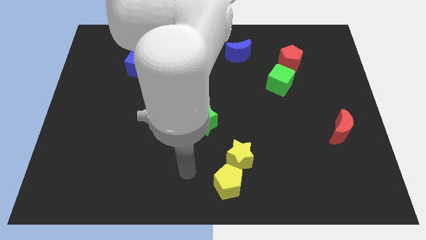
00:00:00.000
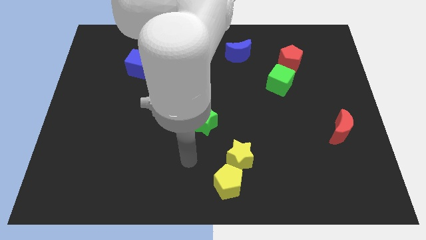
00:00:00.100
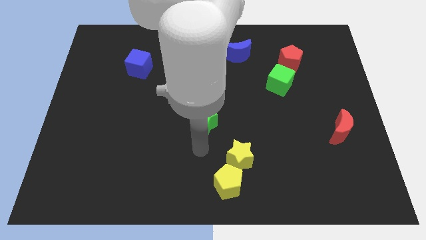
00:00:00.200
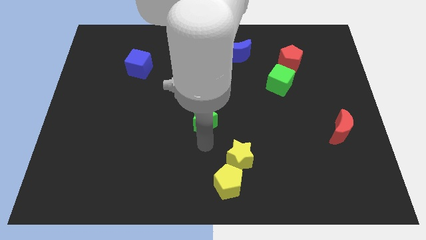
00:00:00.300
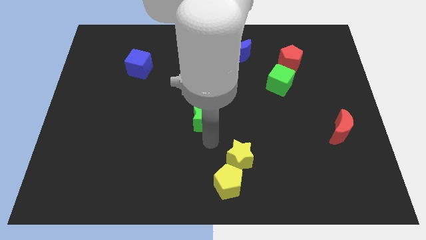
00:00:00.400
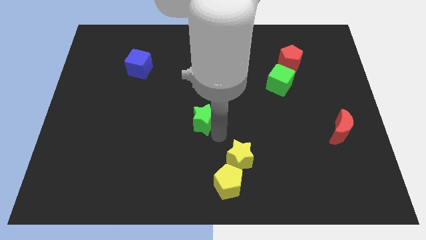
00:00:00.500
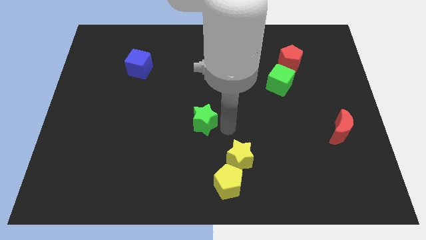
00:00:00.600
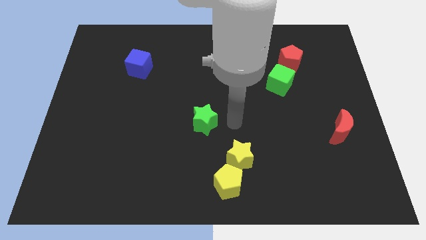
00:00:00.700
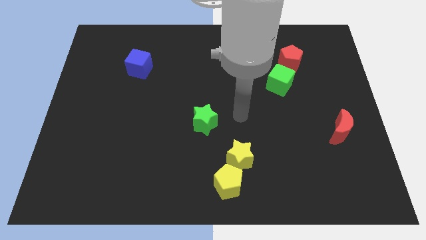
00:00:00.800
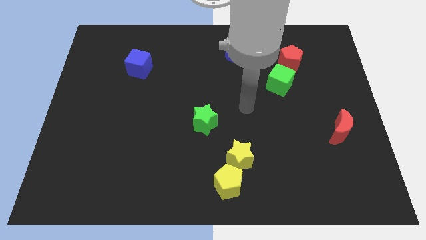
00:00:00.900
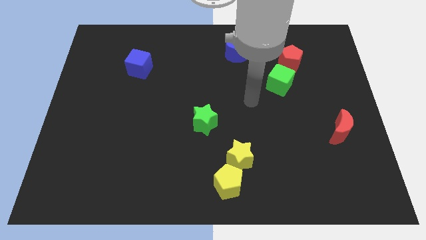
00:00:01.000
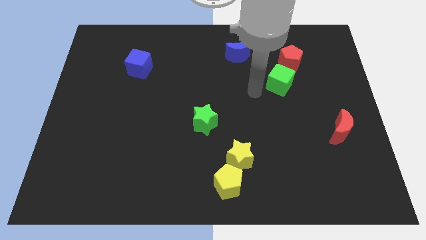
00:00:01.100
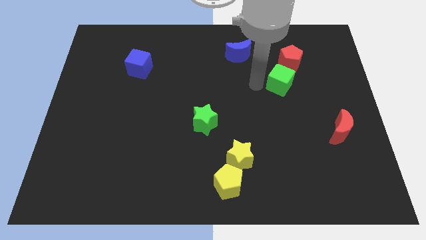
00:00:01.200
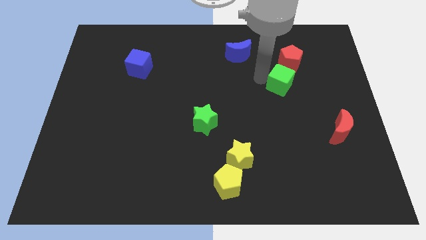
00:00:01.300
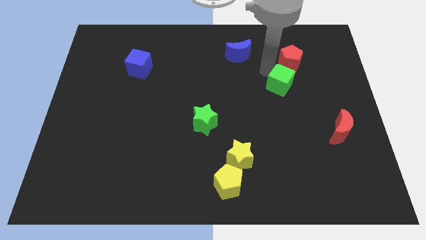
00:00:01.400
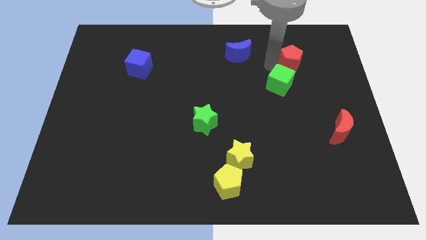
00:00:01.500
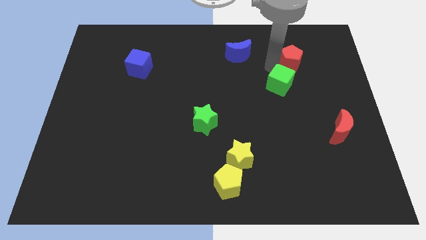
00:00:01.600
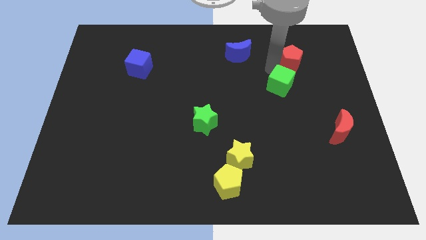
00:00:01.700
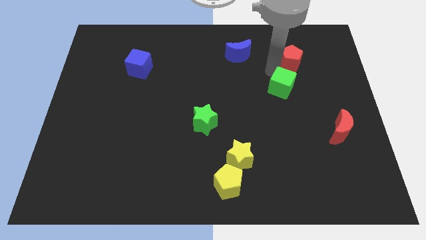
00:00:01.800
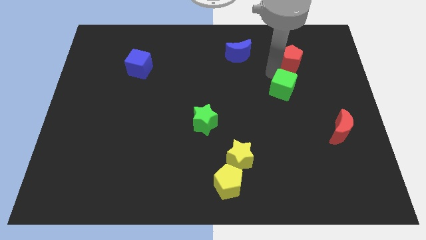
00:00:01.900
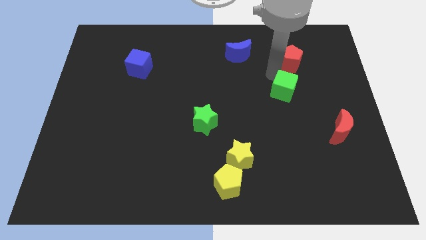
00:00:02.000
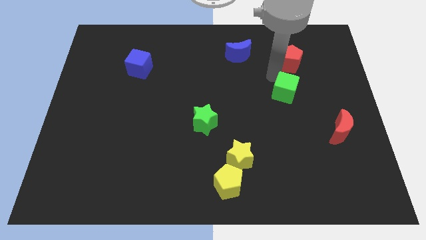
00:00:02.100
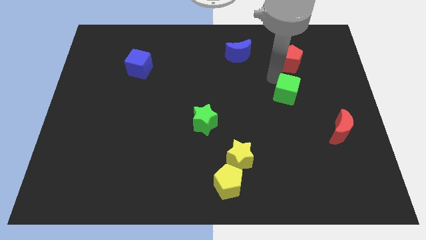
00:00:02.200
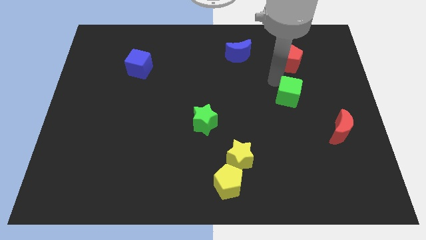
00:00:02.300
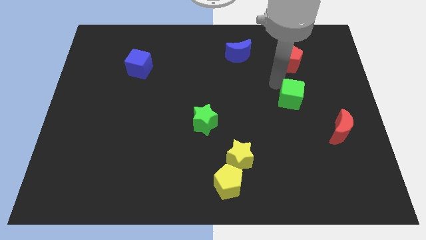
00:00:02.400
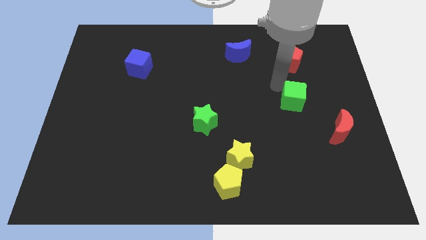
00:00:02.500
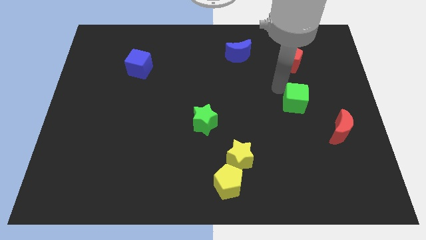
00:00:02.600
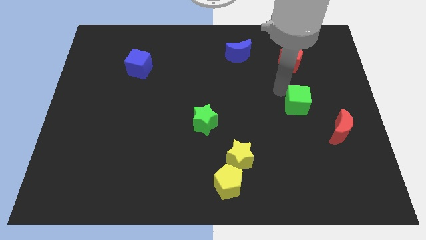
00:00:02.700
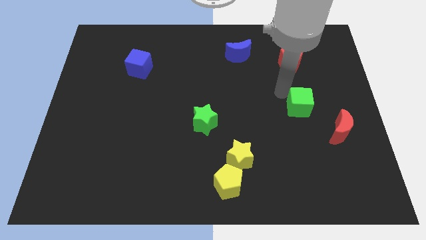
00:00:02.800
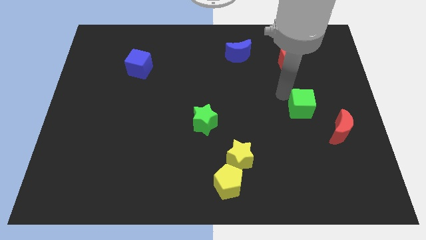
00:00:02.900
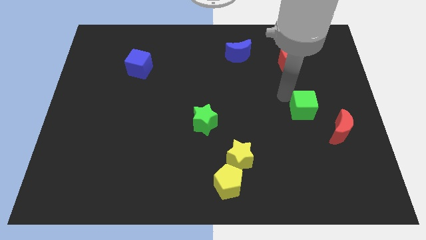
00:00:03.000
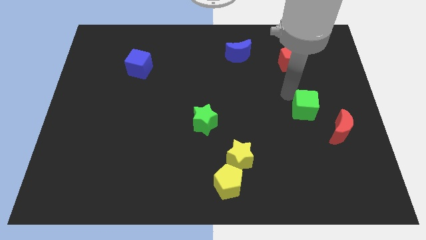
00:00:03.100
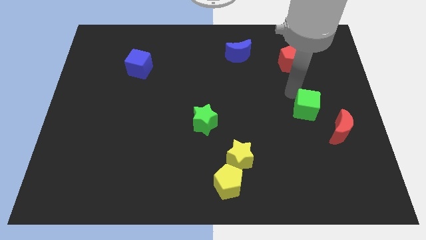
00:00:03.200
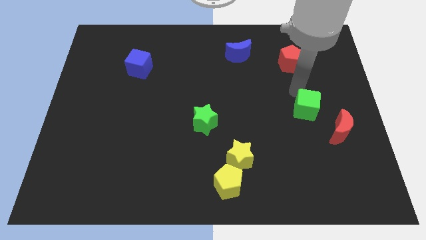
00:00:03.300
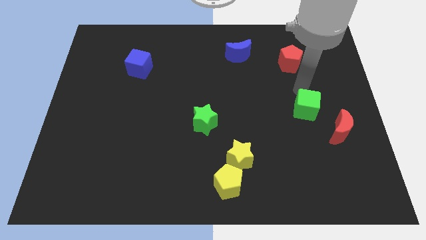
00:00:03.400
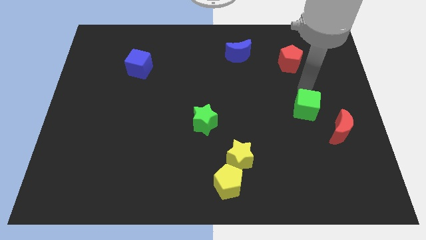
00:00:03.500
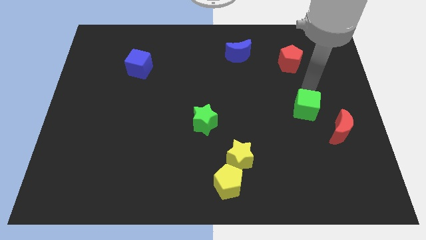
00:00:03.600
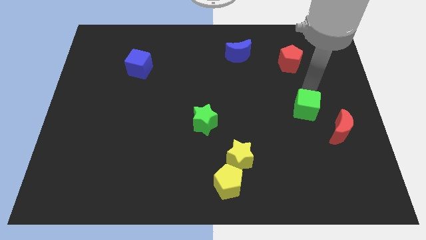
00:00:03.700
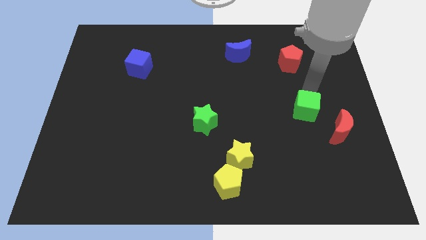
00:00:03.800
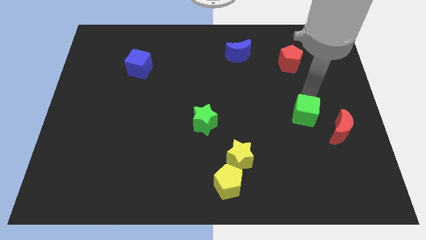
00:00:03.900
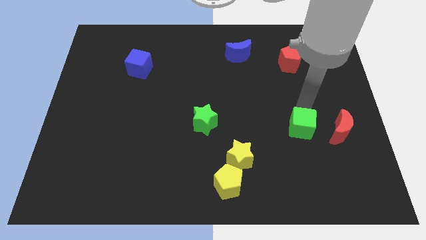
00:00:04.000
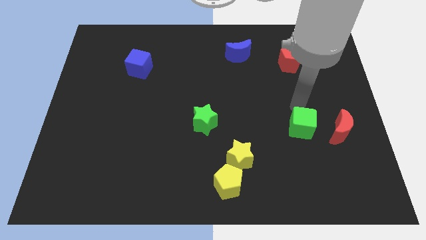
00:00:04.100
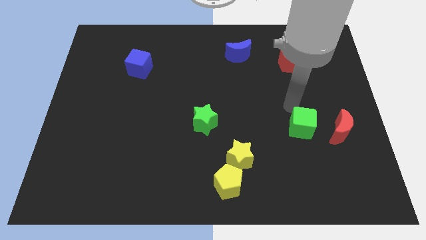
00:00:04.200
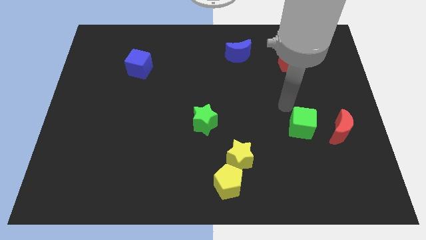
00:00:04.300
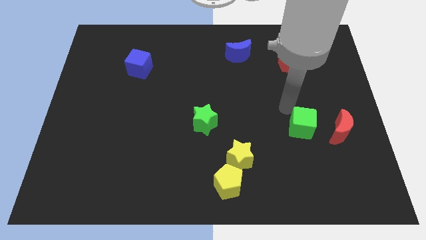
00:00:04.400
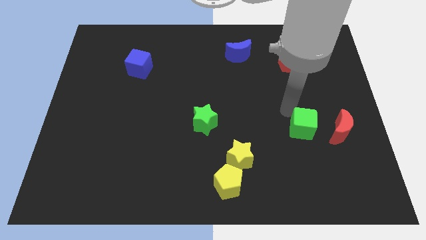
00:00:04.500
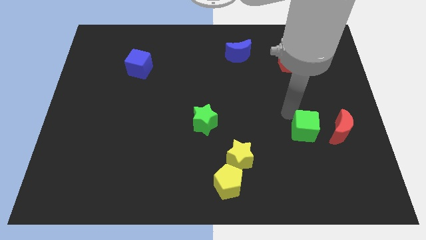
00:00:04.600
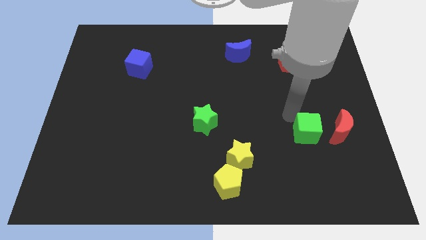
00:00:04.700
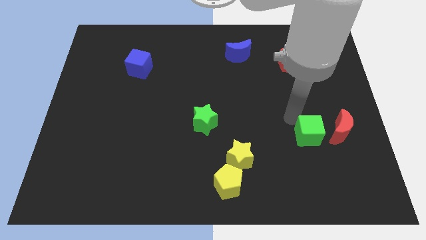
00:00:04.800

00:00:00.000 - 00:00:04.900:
put the green cube to the bottom left of the red moon

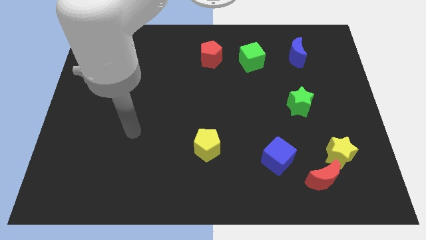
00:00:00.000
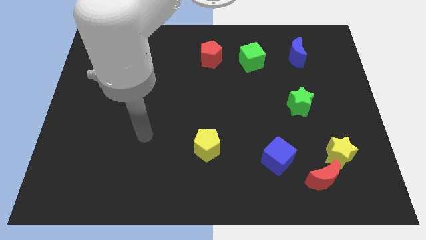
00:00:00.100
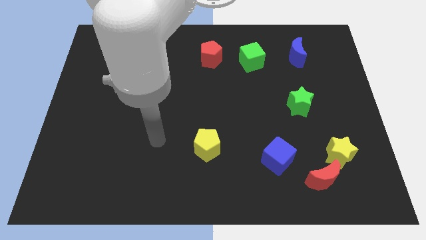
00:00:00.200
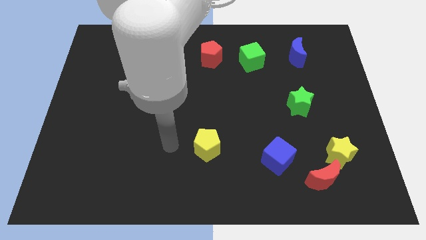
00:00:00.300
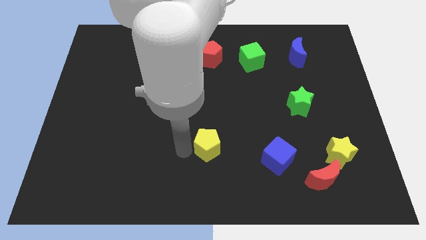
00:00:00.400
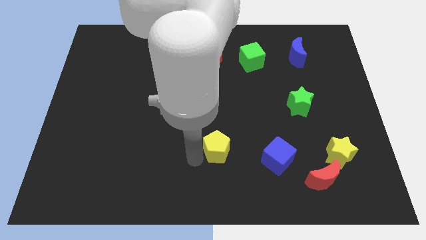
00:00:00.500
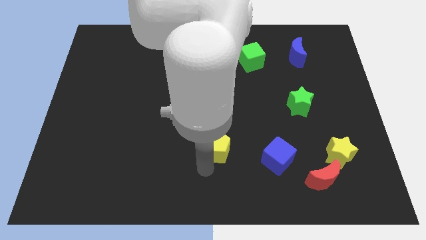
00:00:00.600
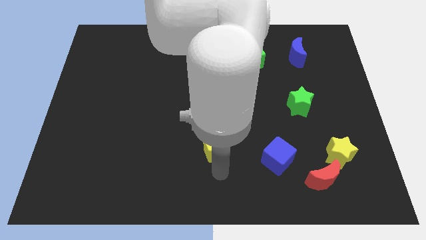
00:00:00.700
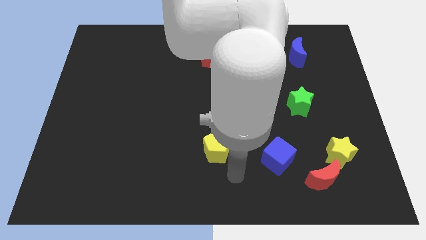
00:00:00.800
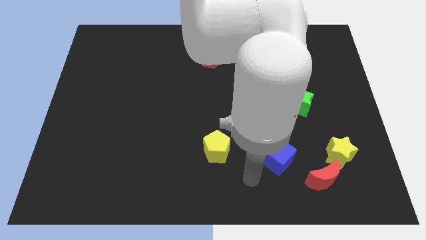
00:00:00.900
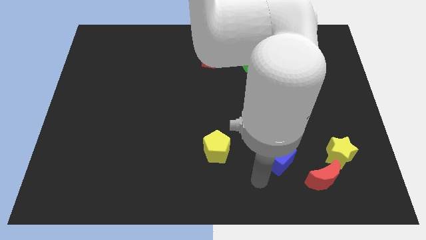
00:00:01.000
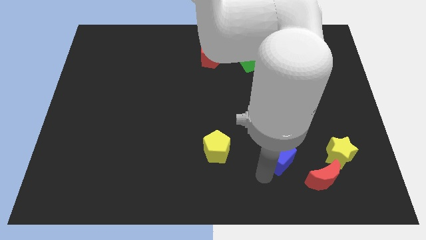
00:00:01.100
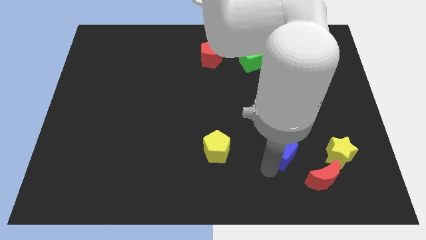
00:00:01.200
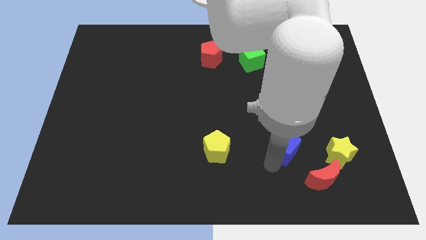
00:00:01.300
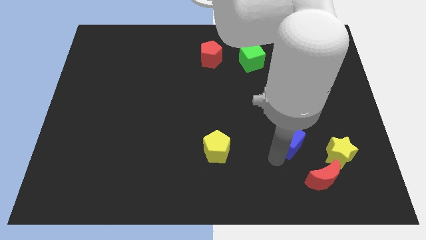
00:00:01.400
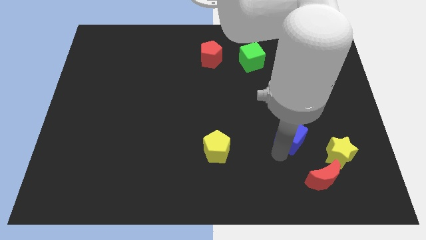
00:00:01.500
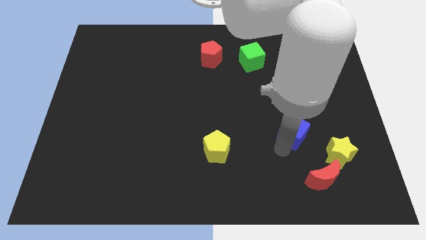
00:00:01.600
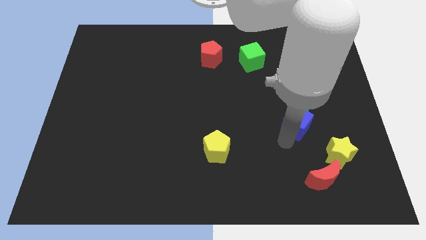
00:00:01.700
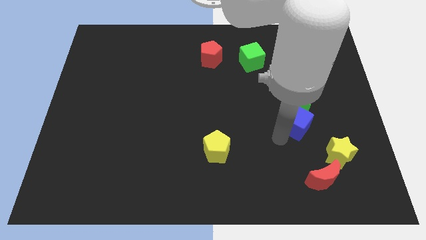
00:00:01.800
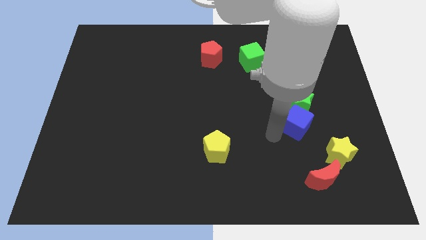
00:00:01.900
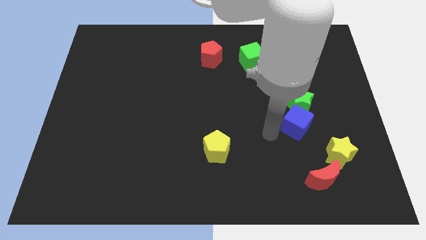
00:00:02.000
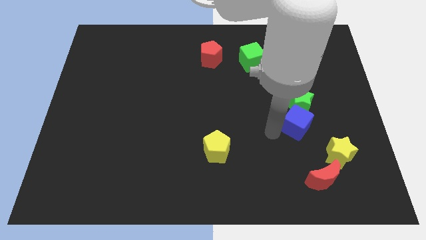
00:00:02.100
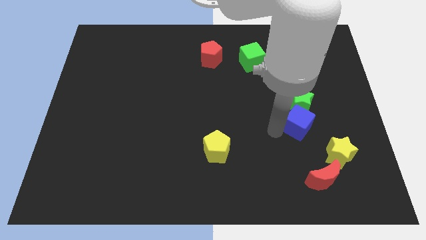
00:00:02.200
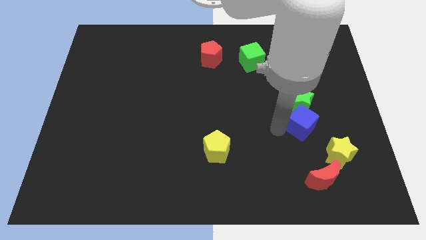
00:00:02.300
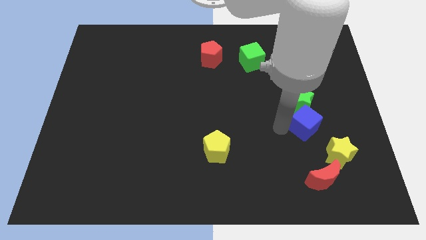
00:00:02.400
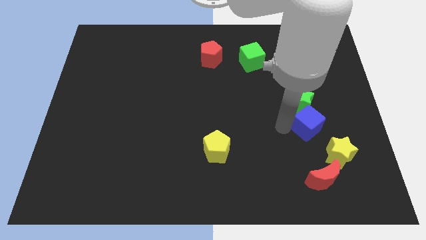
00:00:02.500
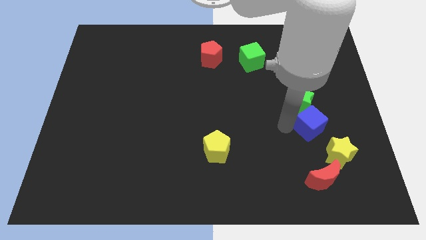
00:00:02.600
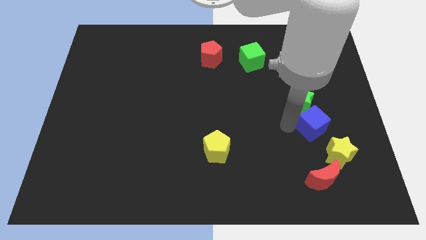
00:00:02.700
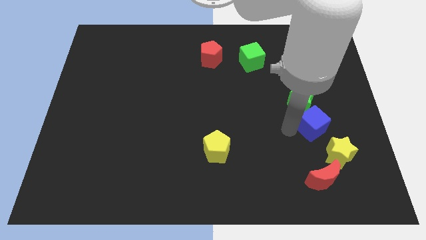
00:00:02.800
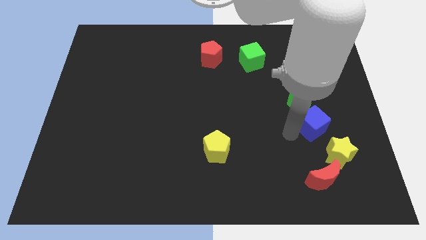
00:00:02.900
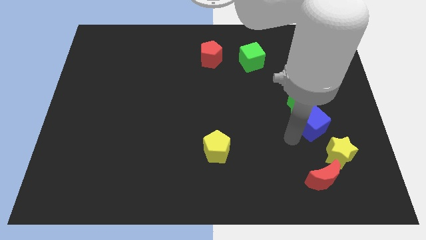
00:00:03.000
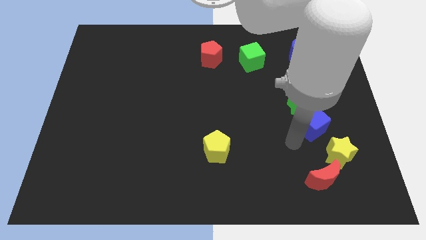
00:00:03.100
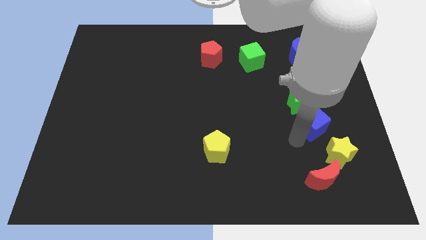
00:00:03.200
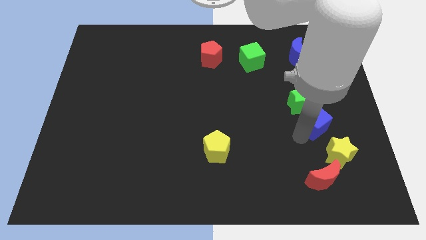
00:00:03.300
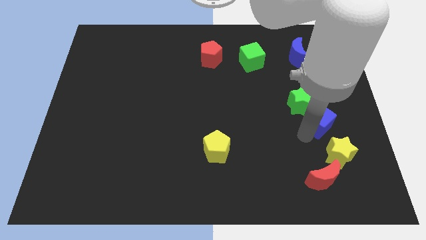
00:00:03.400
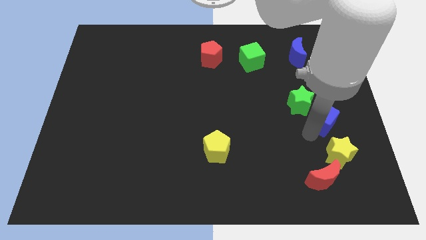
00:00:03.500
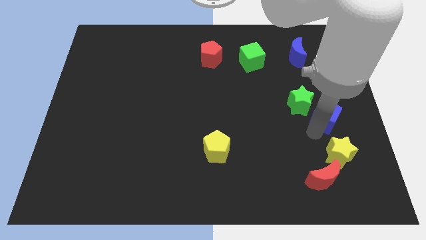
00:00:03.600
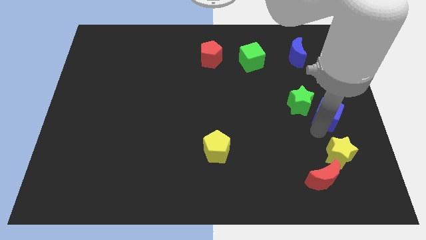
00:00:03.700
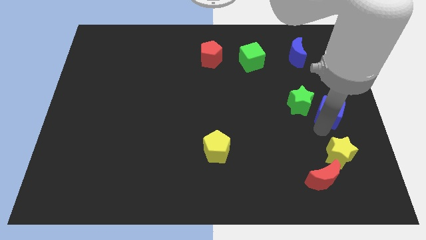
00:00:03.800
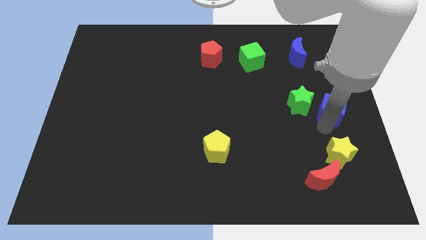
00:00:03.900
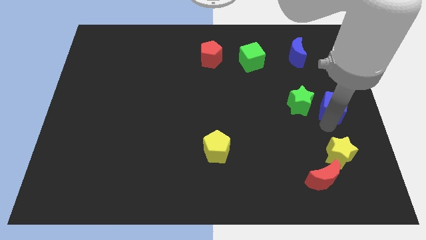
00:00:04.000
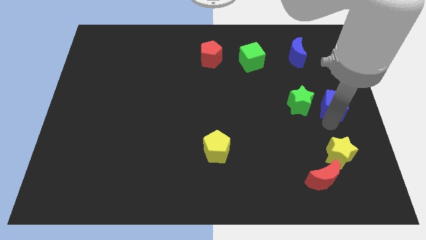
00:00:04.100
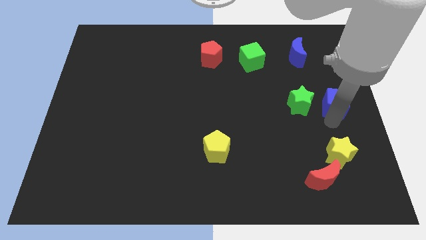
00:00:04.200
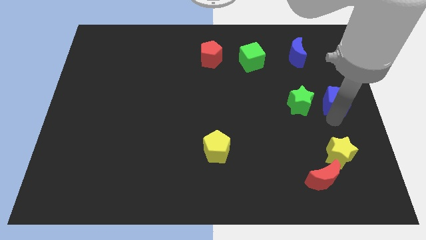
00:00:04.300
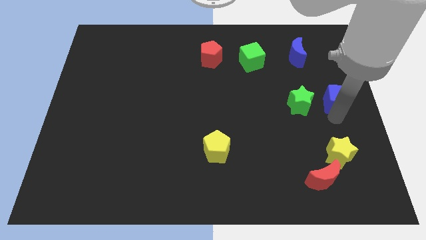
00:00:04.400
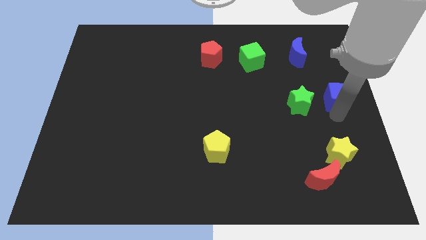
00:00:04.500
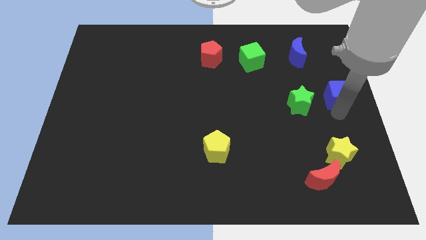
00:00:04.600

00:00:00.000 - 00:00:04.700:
put the blue cube diagonally up and to the right of the green star
